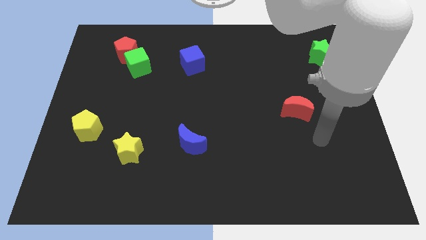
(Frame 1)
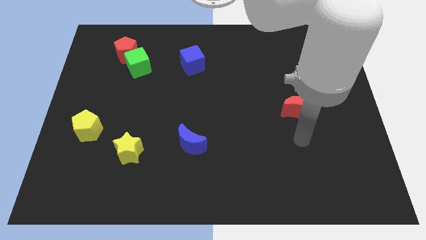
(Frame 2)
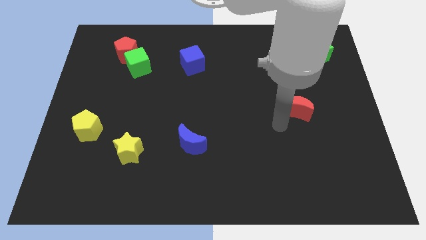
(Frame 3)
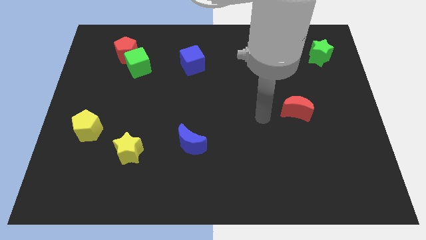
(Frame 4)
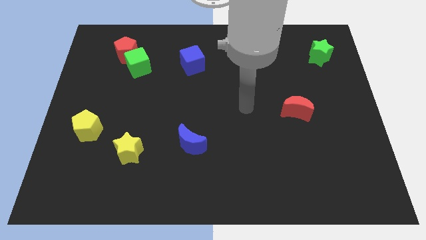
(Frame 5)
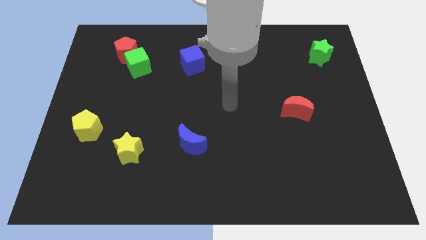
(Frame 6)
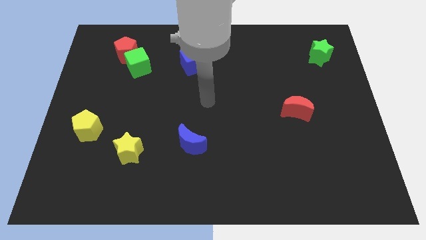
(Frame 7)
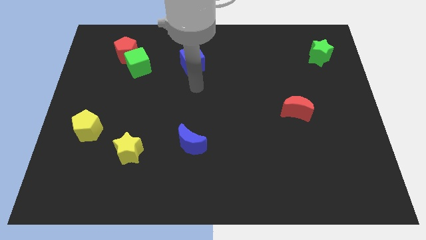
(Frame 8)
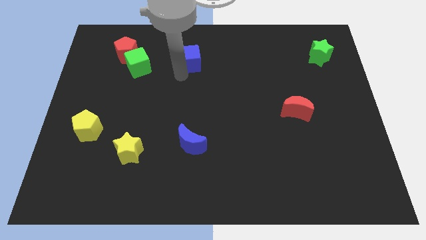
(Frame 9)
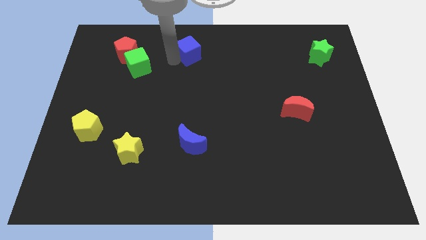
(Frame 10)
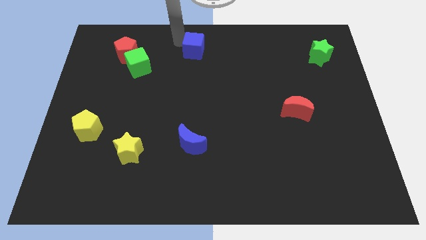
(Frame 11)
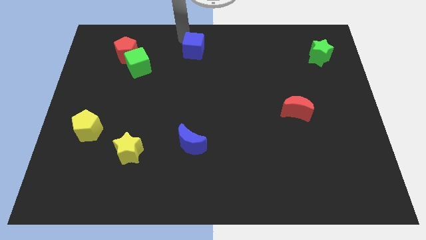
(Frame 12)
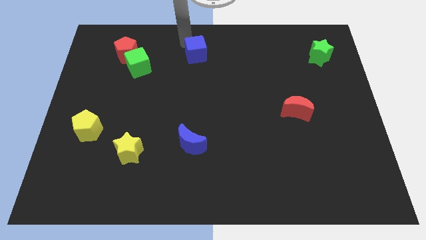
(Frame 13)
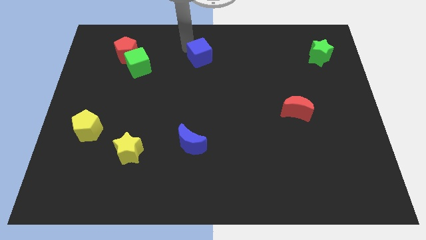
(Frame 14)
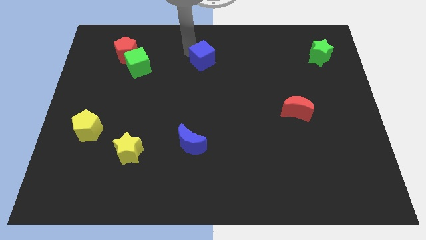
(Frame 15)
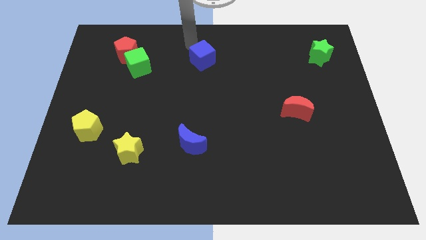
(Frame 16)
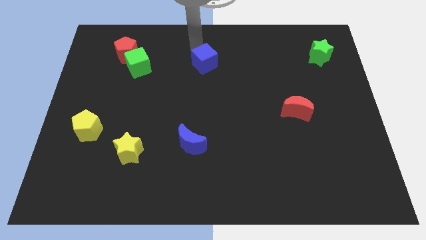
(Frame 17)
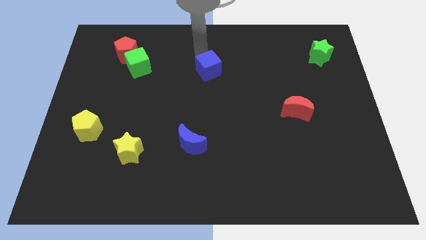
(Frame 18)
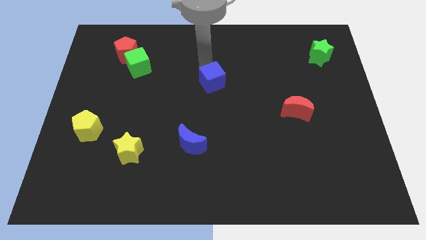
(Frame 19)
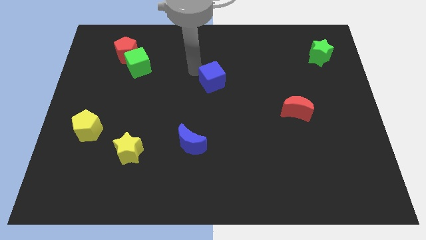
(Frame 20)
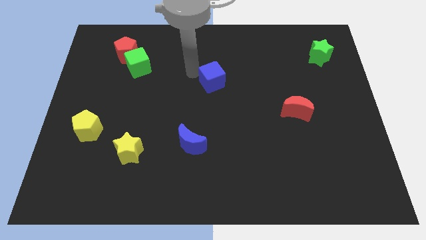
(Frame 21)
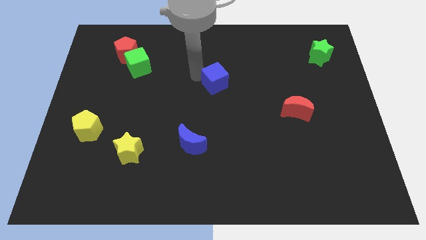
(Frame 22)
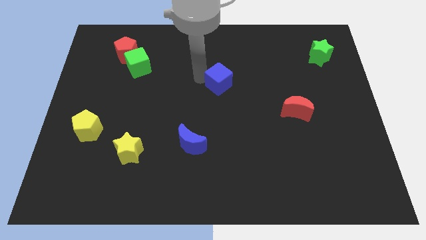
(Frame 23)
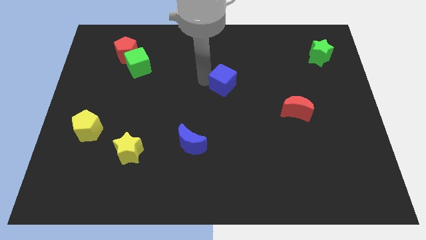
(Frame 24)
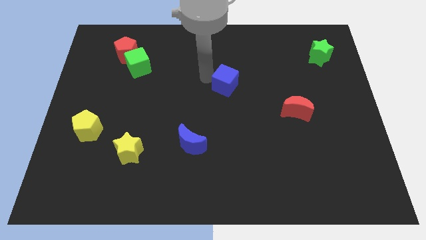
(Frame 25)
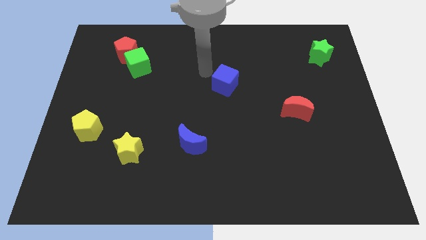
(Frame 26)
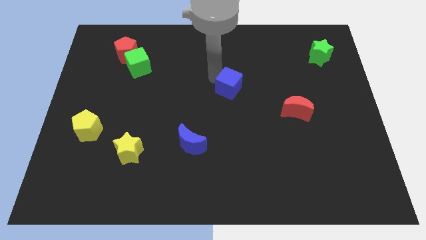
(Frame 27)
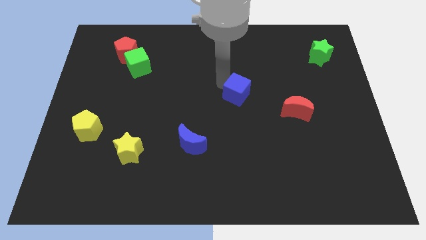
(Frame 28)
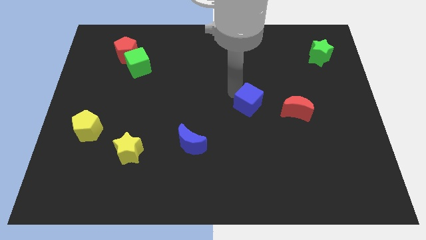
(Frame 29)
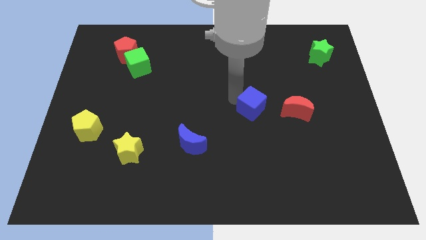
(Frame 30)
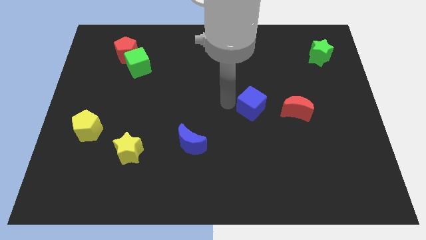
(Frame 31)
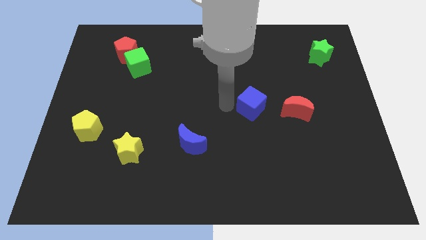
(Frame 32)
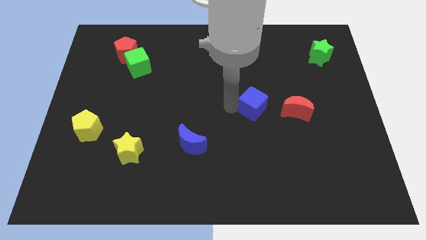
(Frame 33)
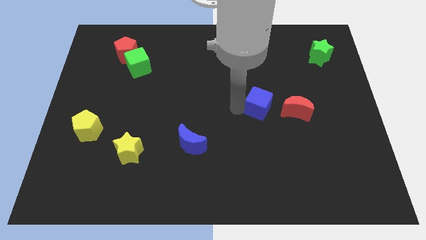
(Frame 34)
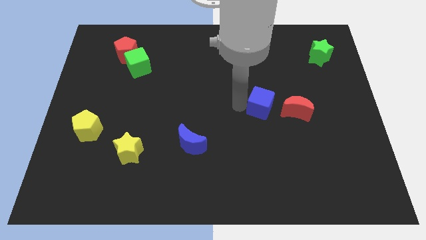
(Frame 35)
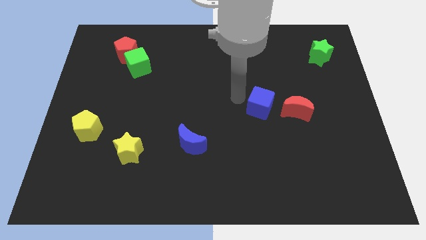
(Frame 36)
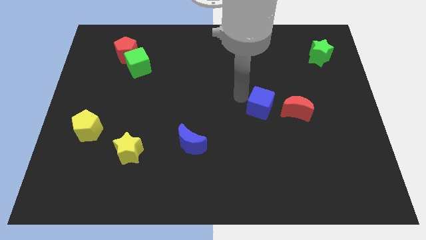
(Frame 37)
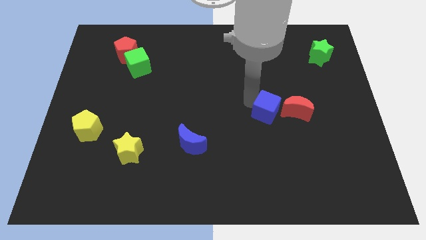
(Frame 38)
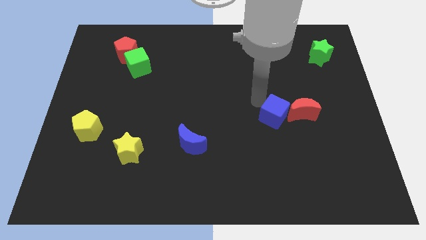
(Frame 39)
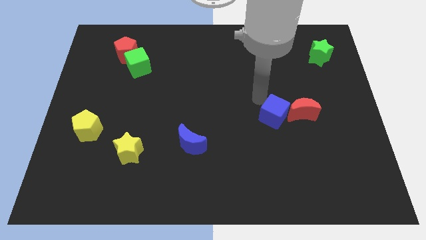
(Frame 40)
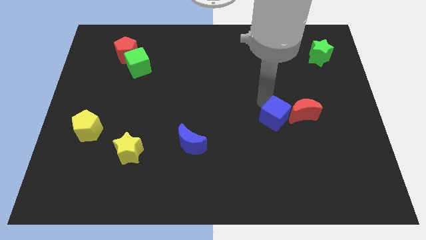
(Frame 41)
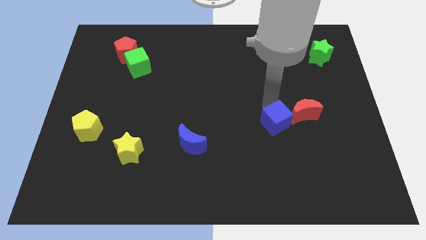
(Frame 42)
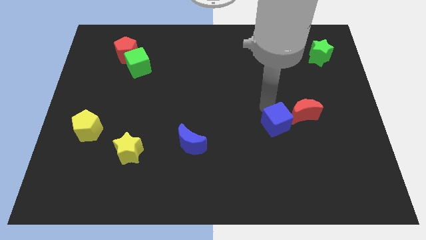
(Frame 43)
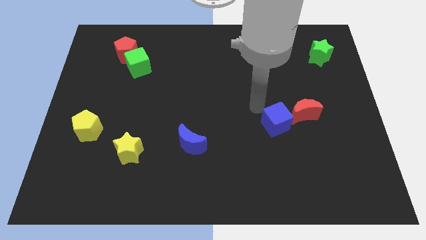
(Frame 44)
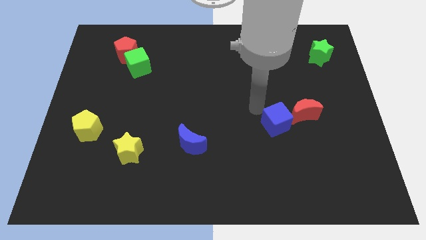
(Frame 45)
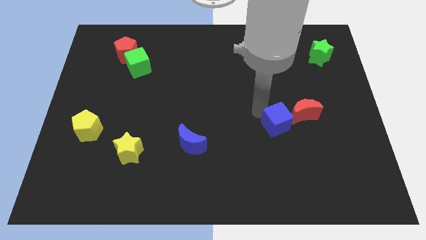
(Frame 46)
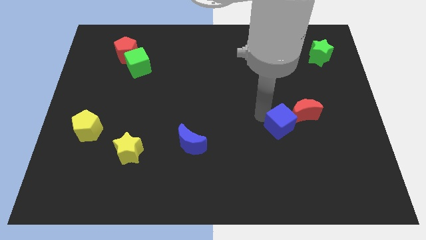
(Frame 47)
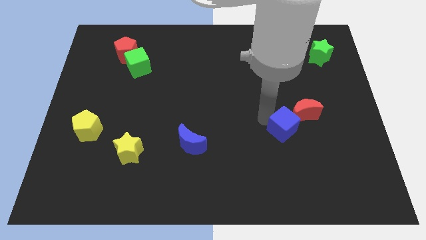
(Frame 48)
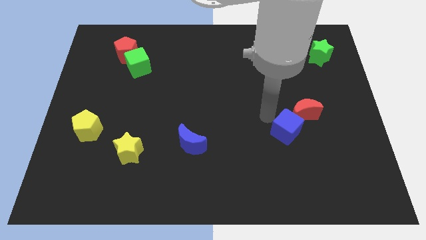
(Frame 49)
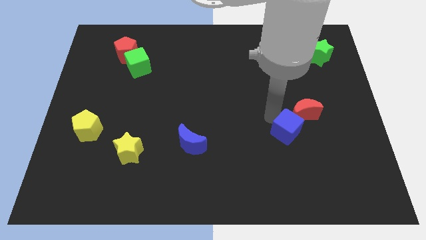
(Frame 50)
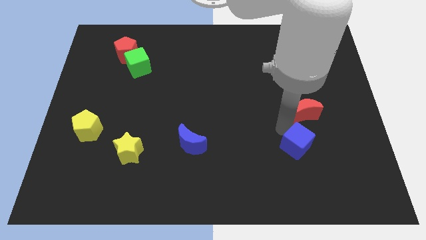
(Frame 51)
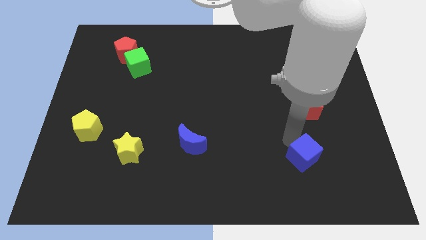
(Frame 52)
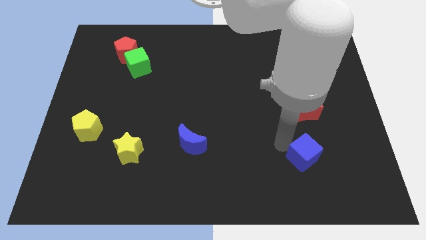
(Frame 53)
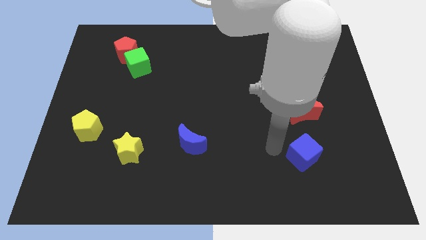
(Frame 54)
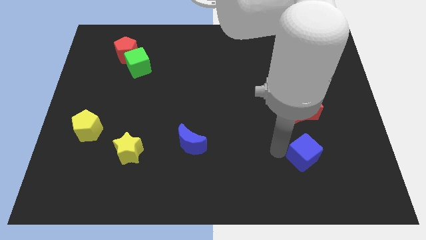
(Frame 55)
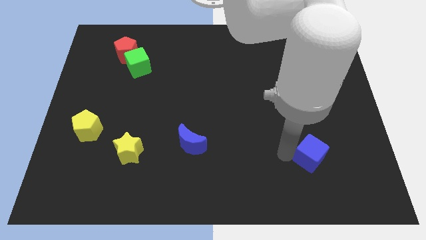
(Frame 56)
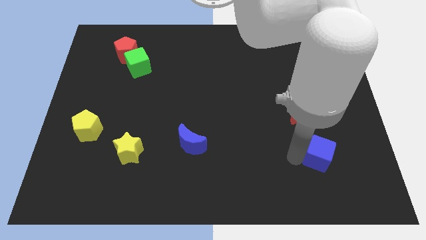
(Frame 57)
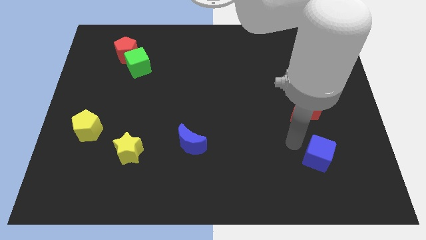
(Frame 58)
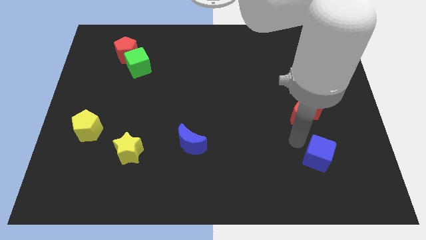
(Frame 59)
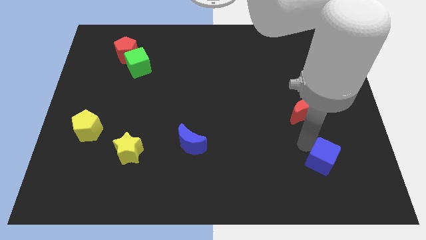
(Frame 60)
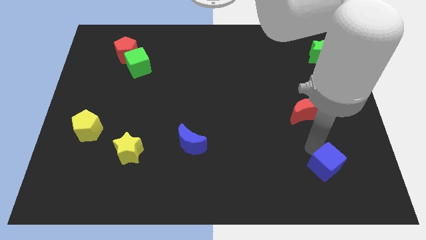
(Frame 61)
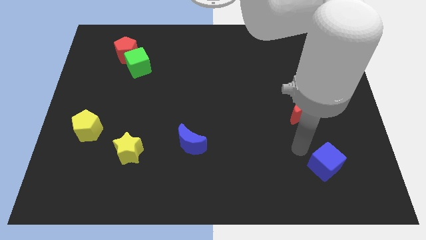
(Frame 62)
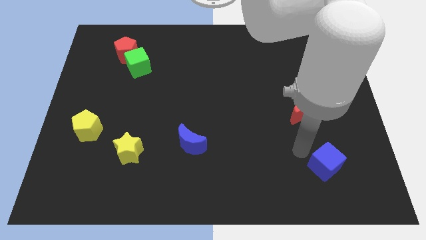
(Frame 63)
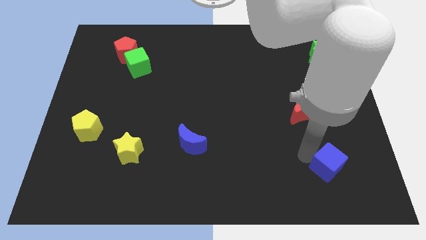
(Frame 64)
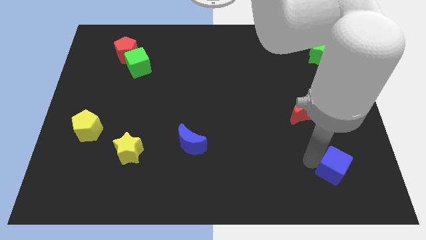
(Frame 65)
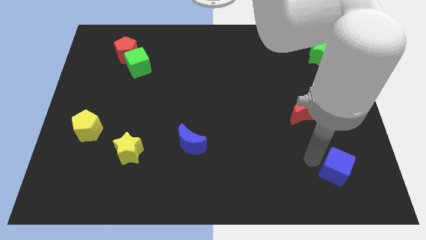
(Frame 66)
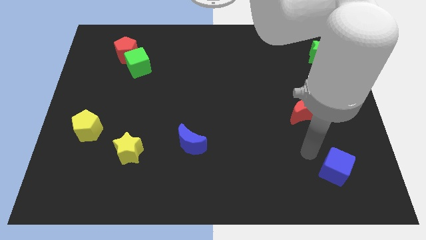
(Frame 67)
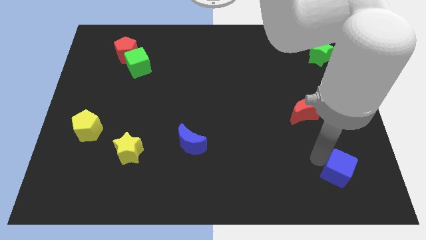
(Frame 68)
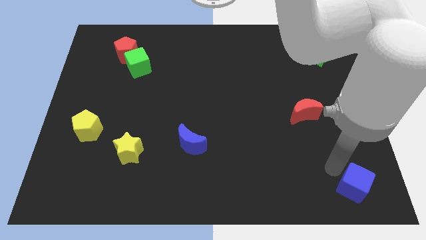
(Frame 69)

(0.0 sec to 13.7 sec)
slide the blue cube to the bottom right of the board
